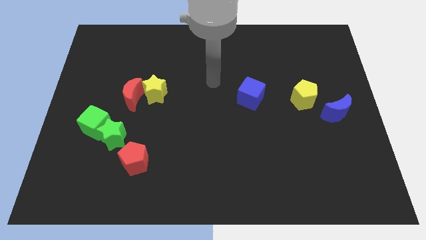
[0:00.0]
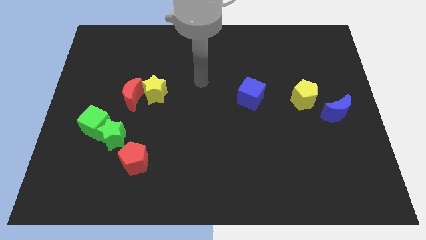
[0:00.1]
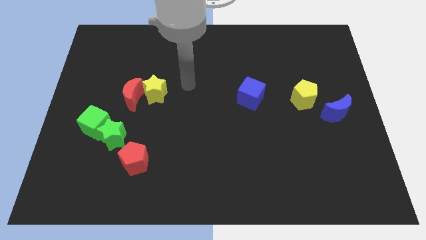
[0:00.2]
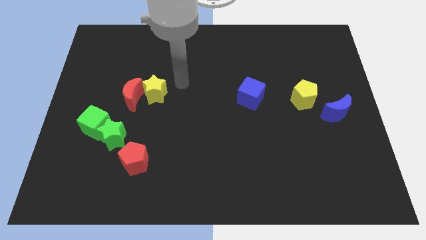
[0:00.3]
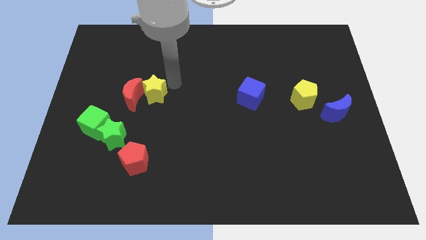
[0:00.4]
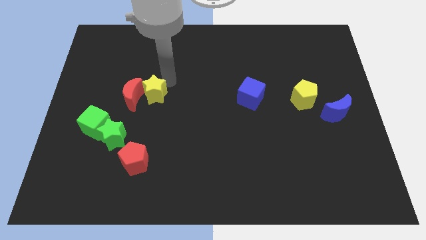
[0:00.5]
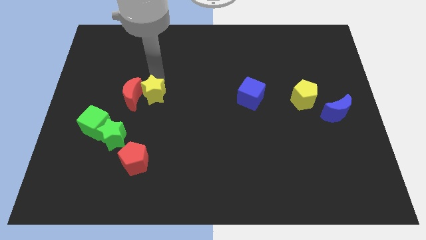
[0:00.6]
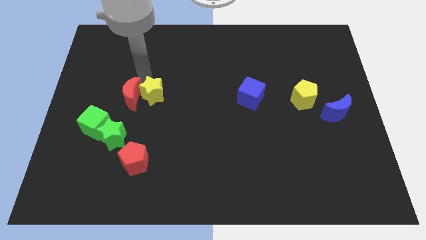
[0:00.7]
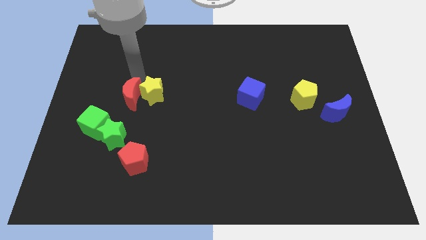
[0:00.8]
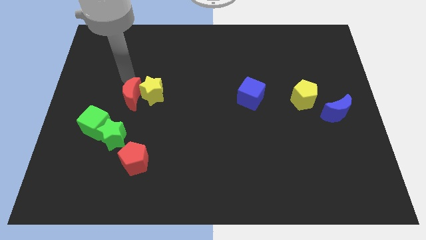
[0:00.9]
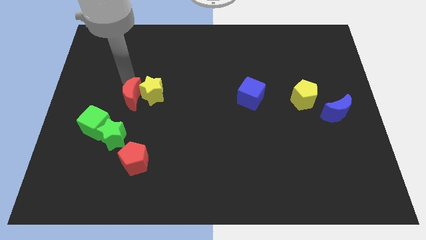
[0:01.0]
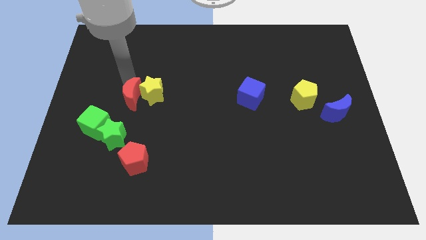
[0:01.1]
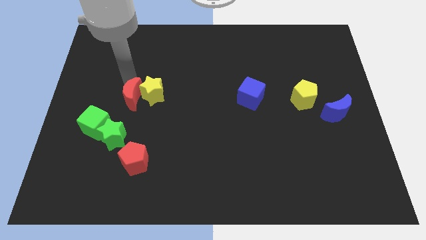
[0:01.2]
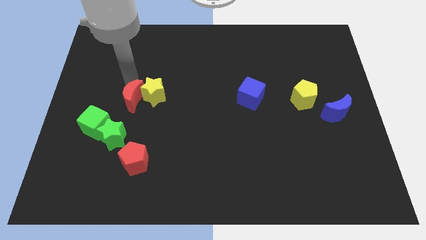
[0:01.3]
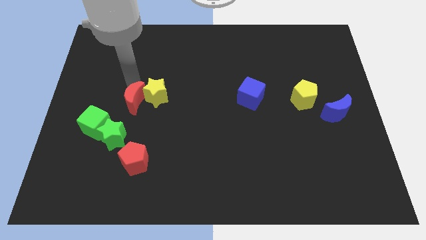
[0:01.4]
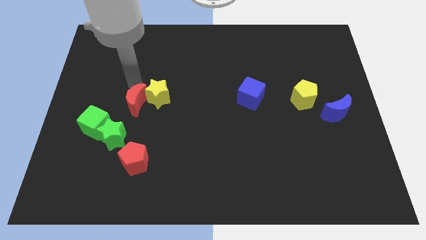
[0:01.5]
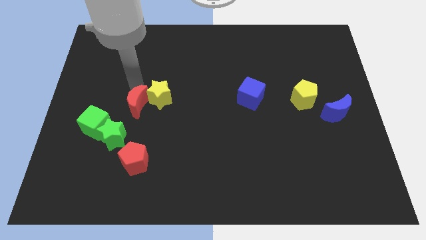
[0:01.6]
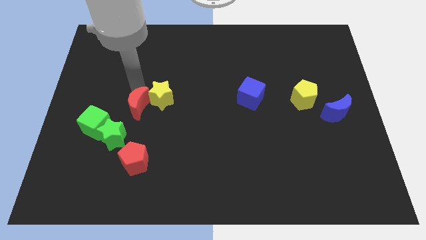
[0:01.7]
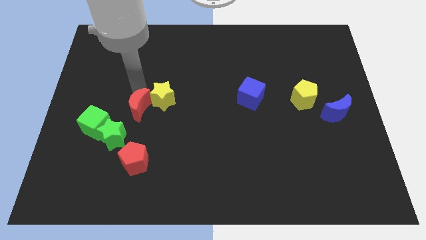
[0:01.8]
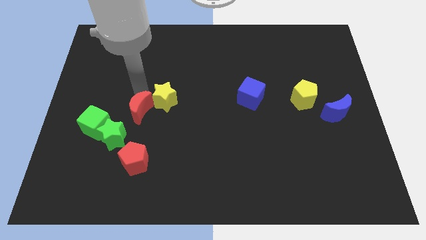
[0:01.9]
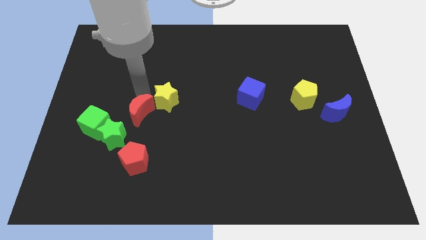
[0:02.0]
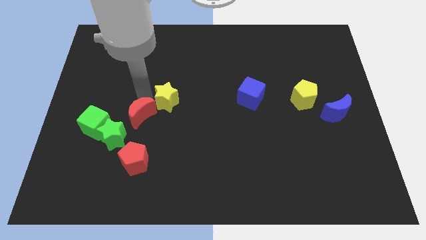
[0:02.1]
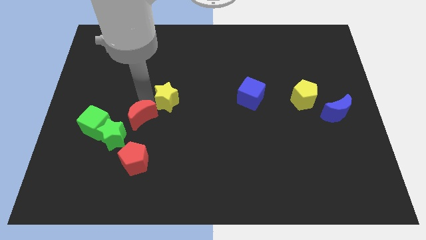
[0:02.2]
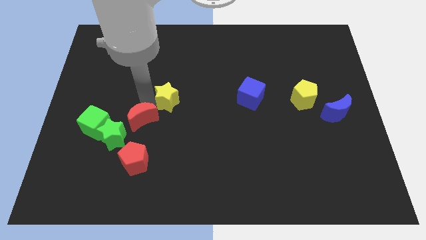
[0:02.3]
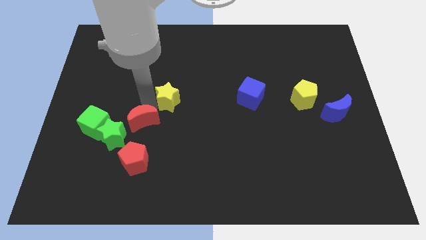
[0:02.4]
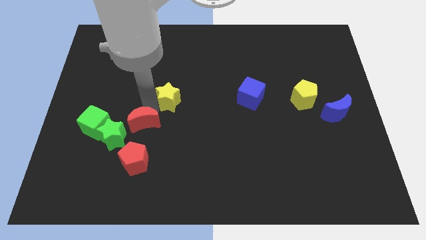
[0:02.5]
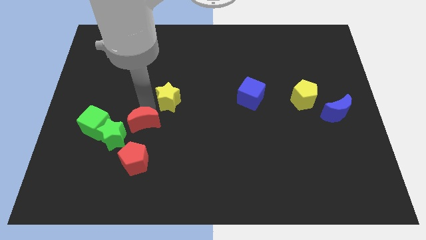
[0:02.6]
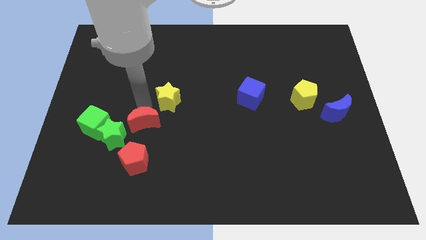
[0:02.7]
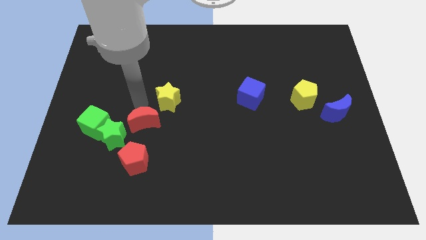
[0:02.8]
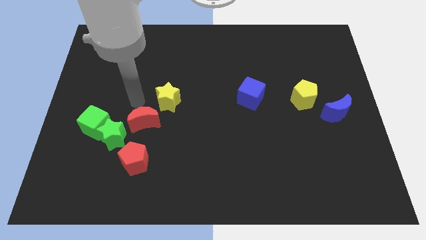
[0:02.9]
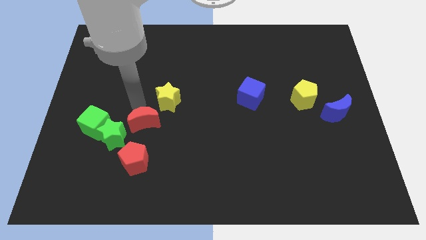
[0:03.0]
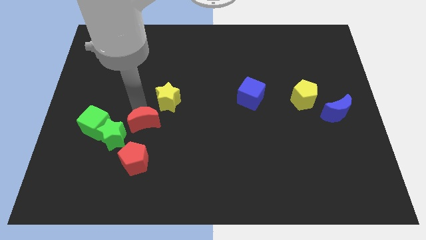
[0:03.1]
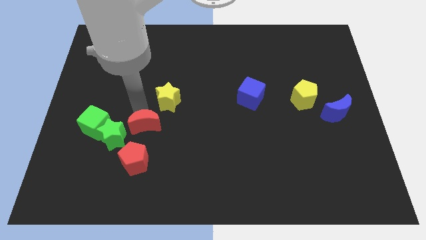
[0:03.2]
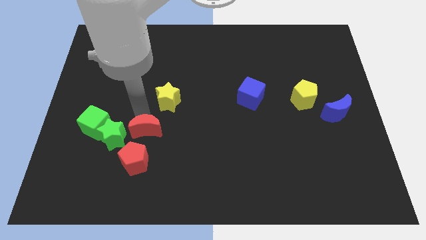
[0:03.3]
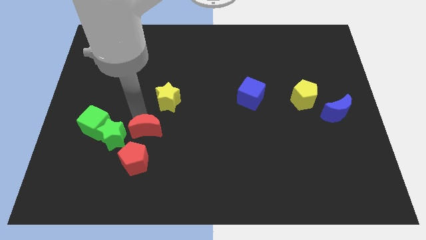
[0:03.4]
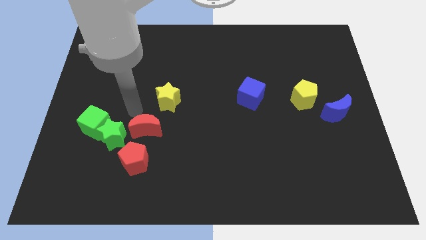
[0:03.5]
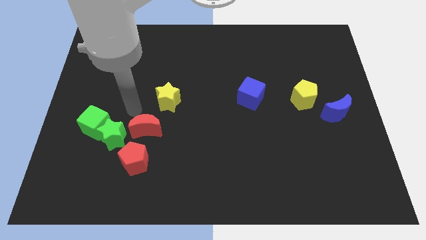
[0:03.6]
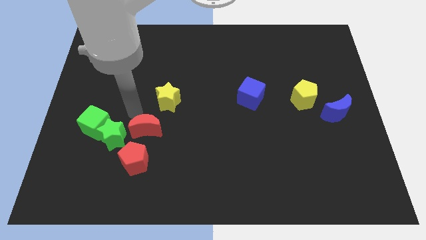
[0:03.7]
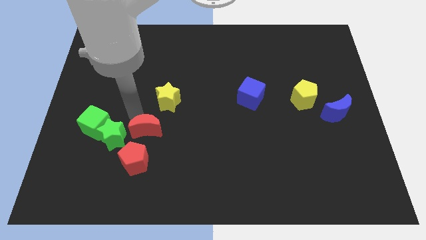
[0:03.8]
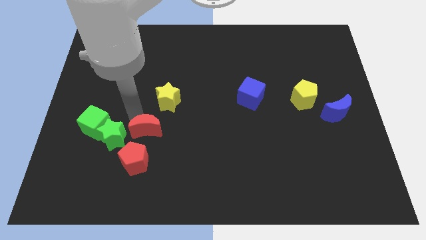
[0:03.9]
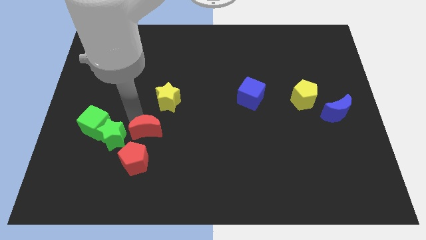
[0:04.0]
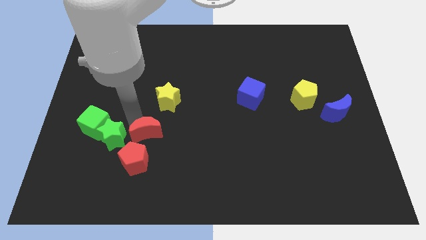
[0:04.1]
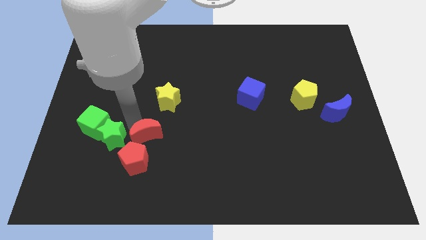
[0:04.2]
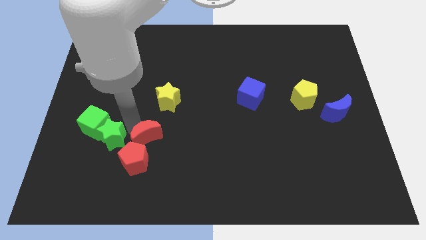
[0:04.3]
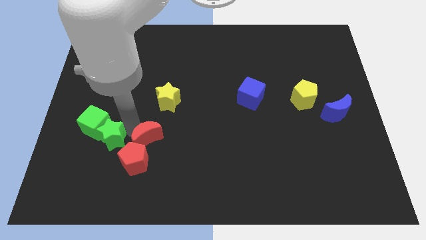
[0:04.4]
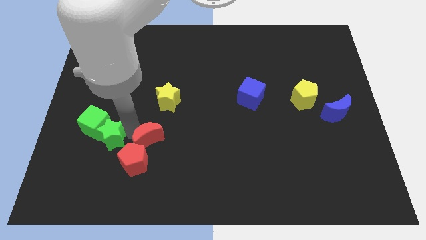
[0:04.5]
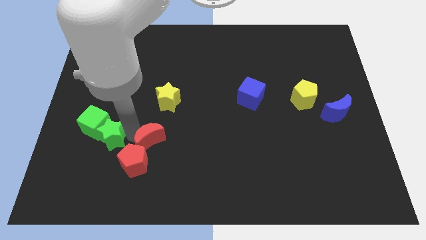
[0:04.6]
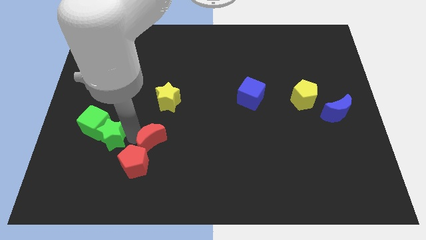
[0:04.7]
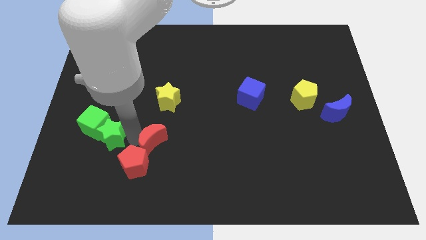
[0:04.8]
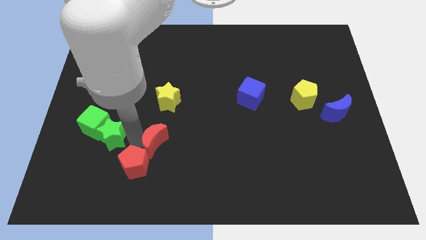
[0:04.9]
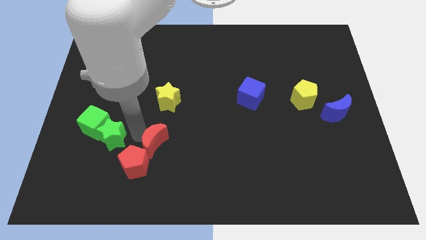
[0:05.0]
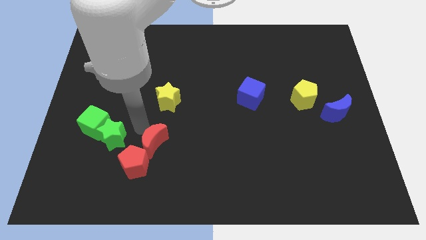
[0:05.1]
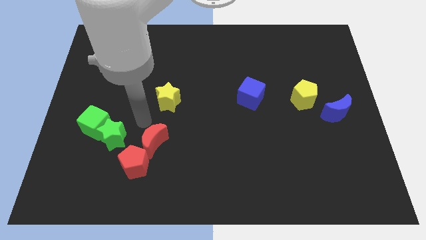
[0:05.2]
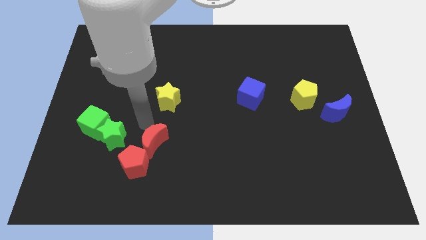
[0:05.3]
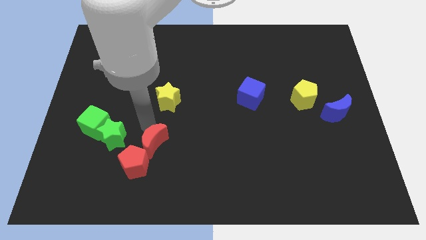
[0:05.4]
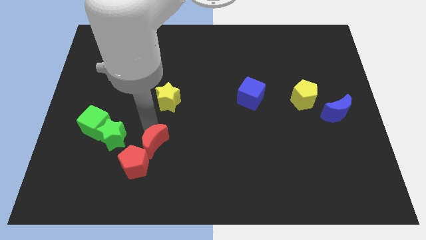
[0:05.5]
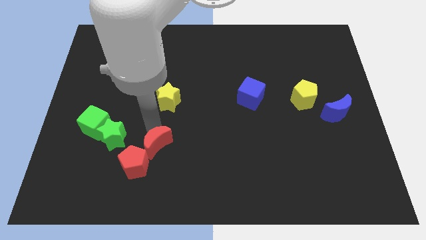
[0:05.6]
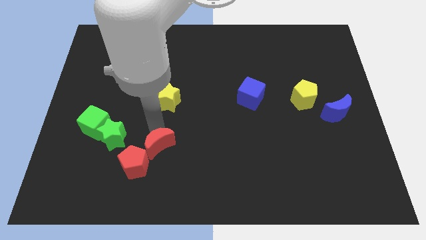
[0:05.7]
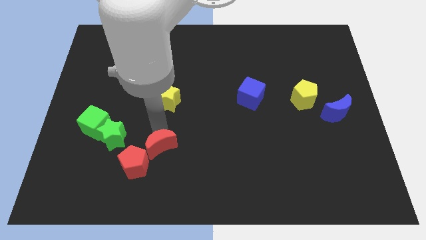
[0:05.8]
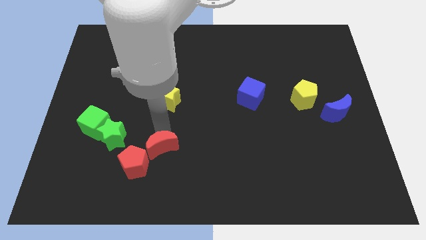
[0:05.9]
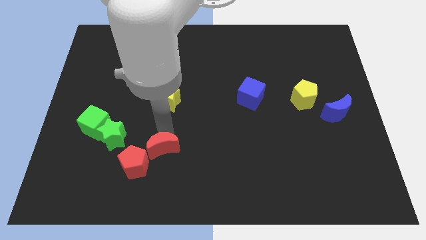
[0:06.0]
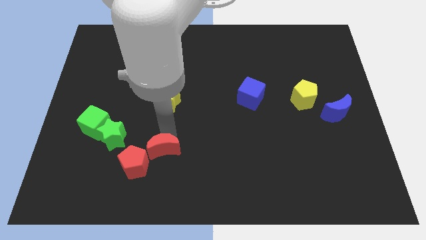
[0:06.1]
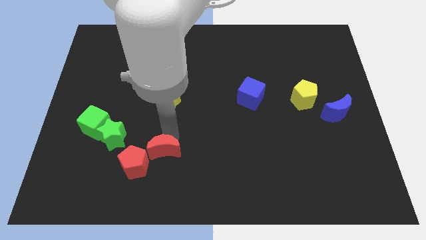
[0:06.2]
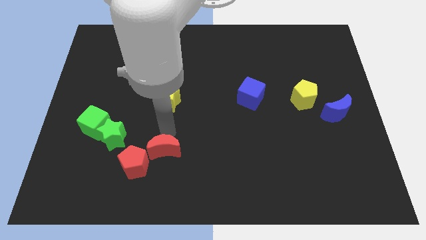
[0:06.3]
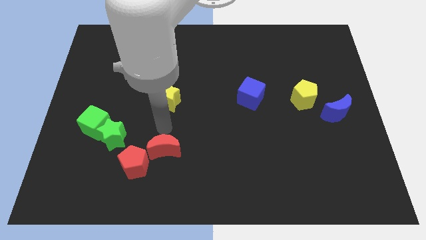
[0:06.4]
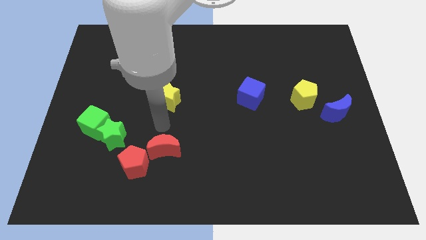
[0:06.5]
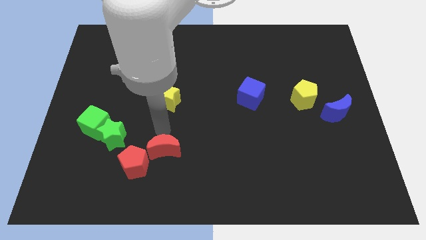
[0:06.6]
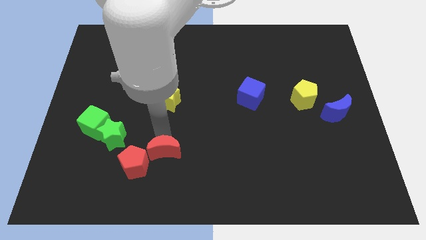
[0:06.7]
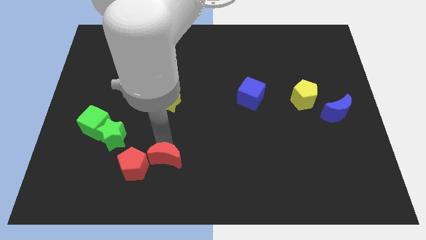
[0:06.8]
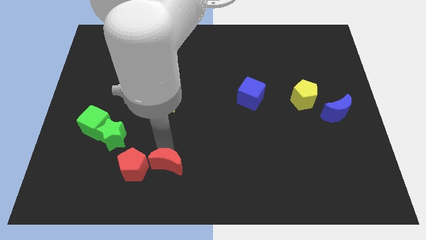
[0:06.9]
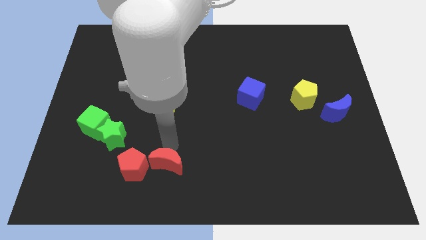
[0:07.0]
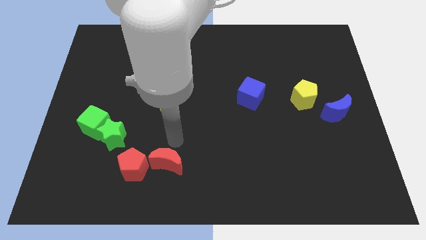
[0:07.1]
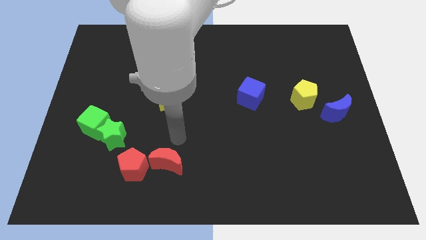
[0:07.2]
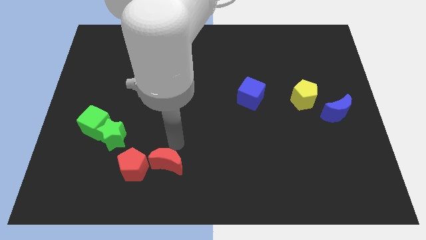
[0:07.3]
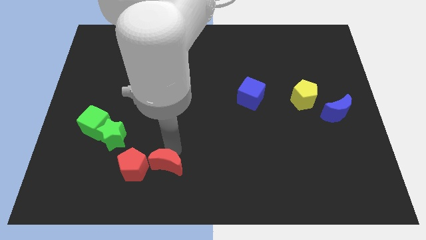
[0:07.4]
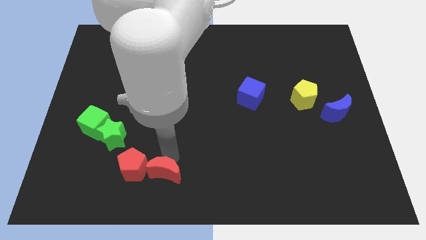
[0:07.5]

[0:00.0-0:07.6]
move the red moon to the bottom right side of the red pentagon
